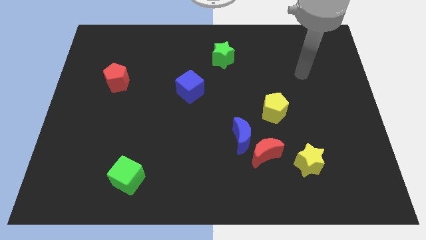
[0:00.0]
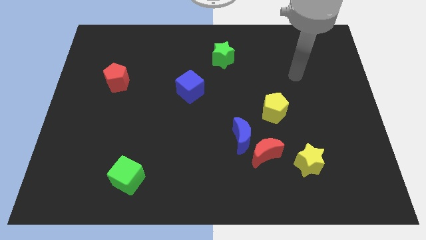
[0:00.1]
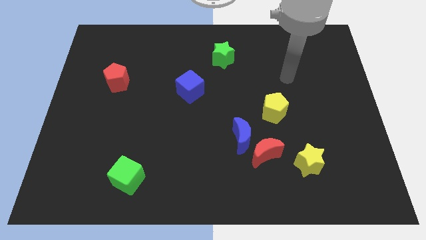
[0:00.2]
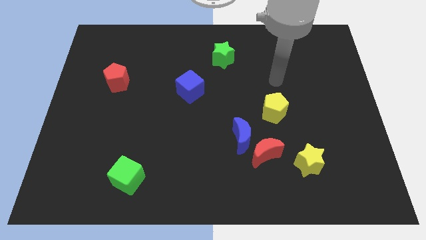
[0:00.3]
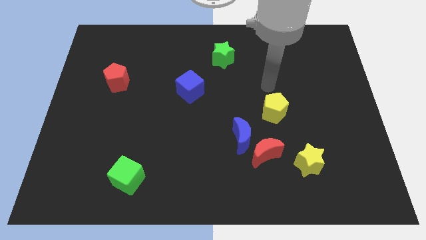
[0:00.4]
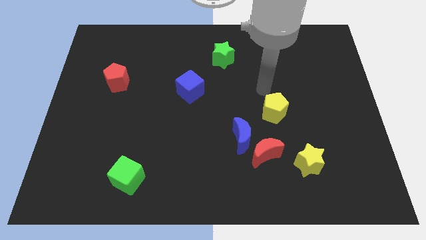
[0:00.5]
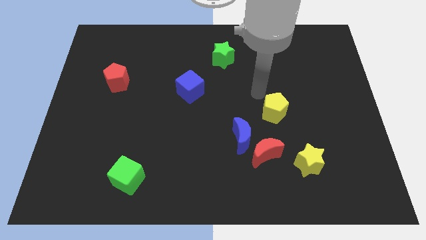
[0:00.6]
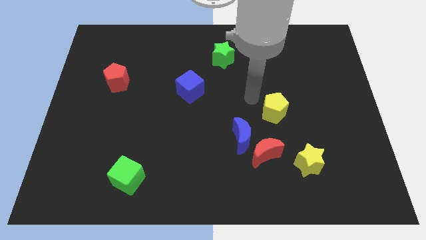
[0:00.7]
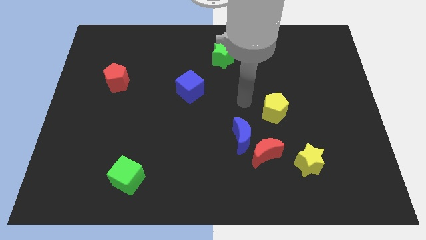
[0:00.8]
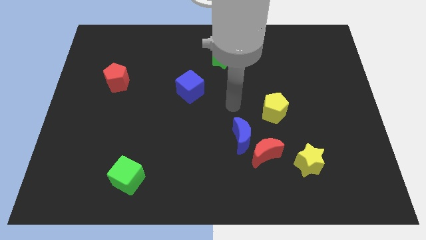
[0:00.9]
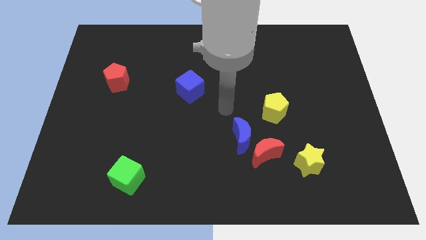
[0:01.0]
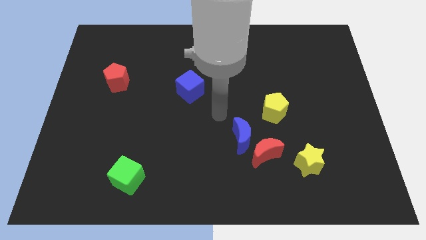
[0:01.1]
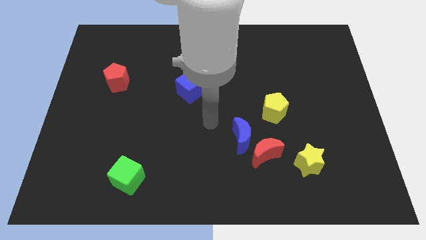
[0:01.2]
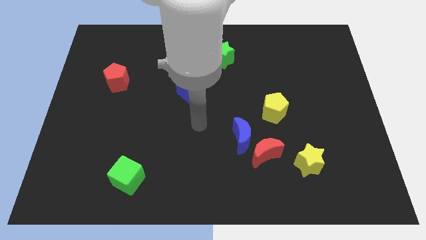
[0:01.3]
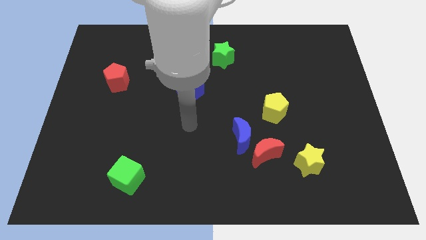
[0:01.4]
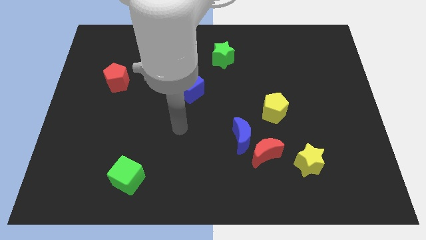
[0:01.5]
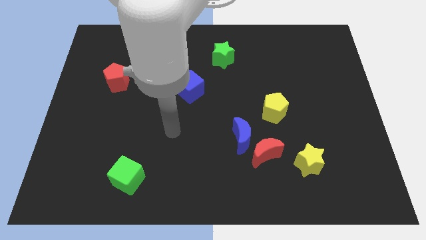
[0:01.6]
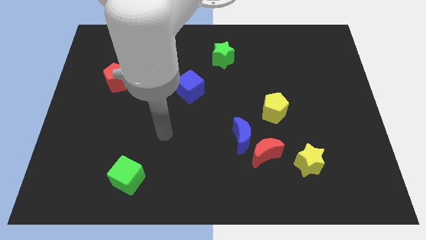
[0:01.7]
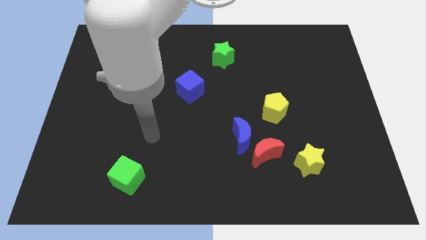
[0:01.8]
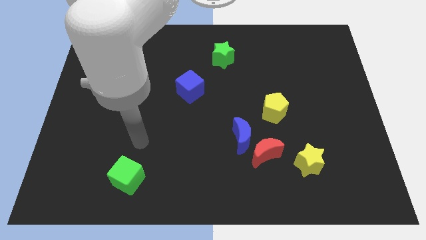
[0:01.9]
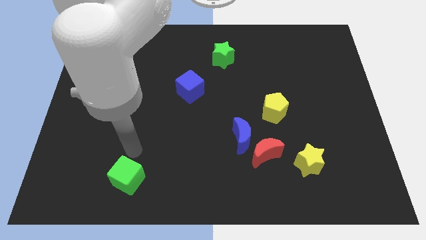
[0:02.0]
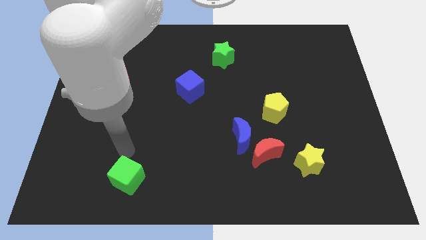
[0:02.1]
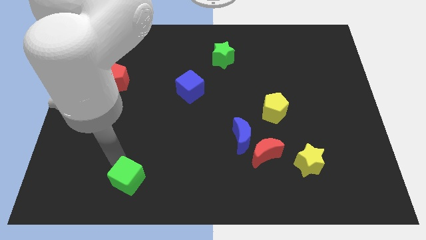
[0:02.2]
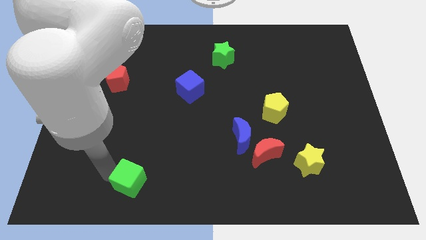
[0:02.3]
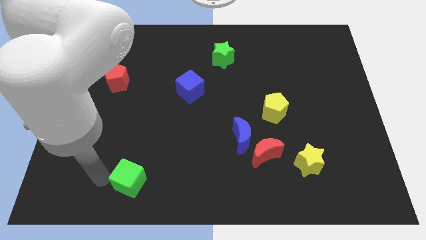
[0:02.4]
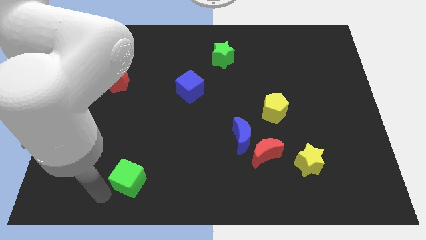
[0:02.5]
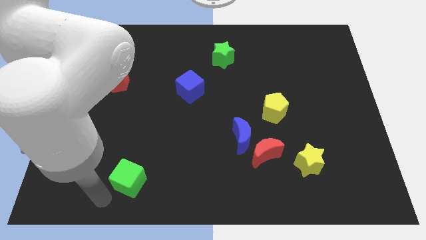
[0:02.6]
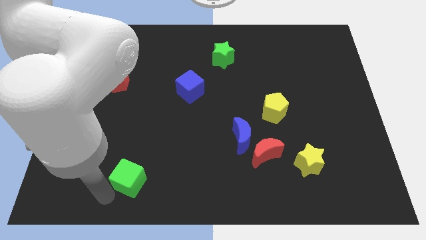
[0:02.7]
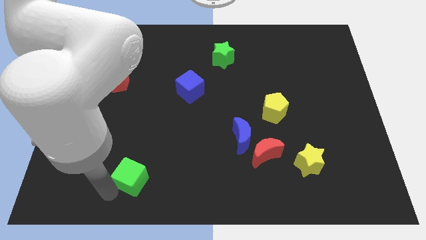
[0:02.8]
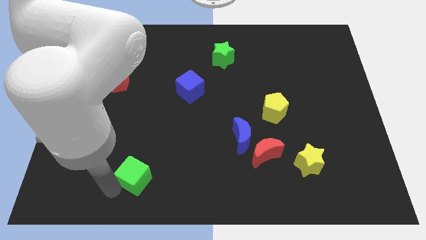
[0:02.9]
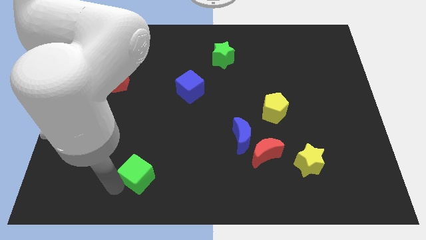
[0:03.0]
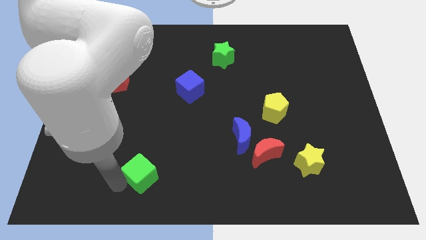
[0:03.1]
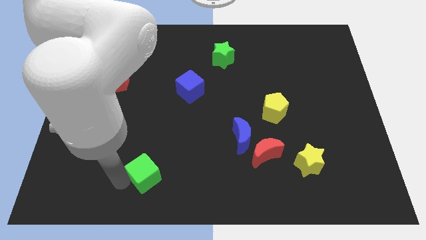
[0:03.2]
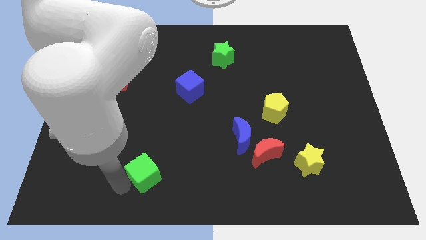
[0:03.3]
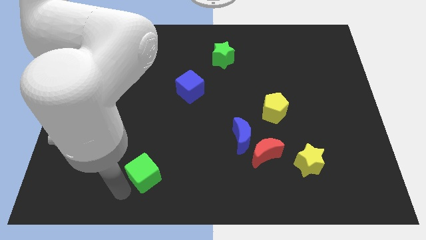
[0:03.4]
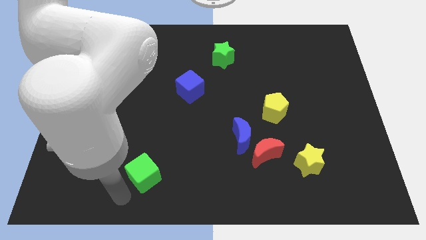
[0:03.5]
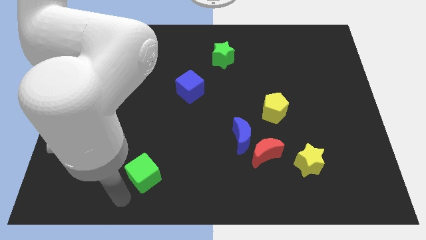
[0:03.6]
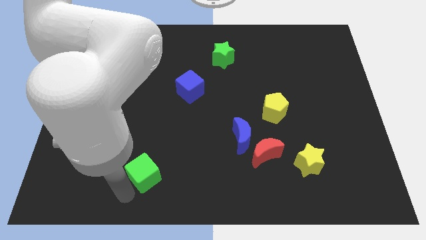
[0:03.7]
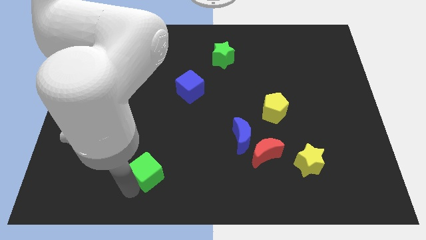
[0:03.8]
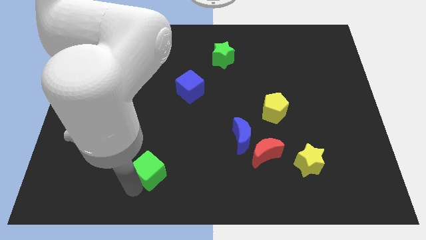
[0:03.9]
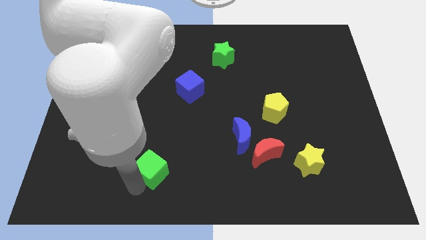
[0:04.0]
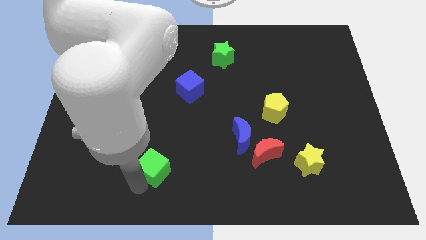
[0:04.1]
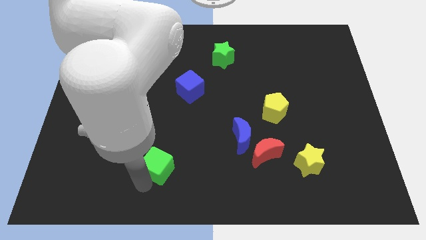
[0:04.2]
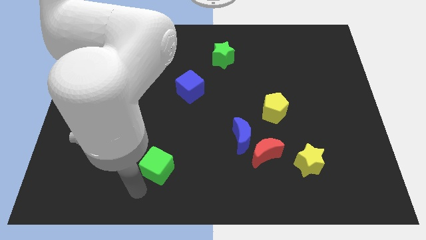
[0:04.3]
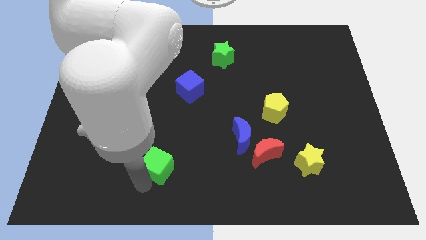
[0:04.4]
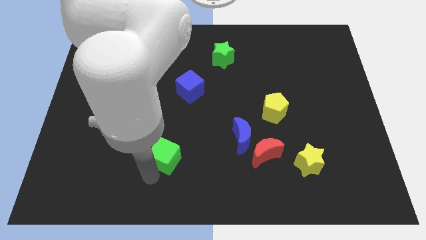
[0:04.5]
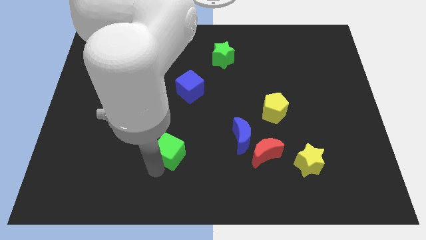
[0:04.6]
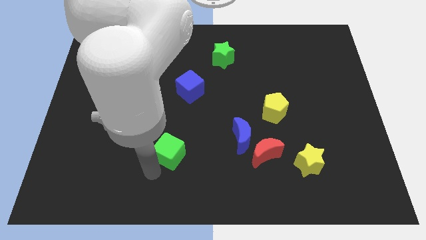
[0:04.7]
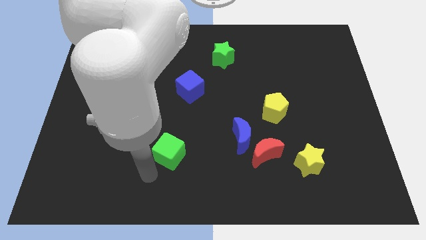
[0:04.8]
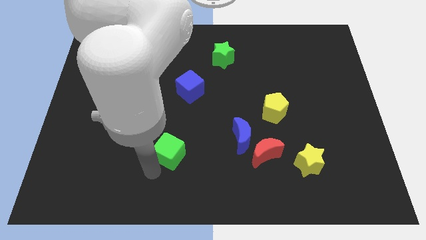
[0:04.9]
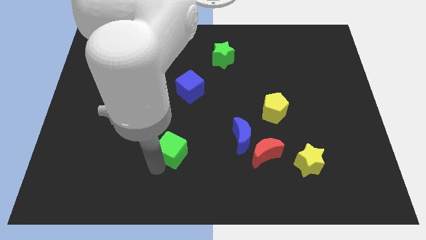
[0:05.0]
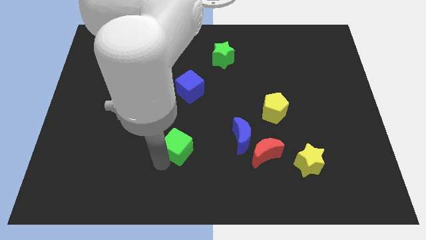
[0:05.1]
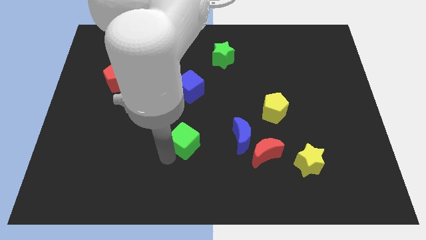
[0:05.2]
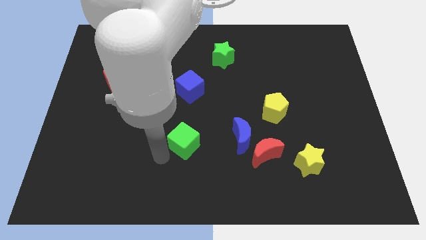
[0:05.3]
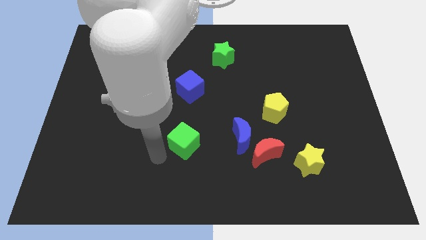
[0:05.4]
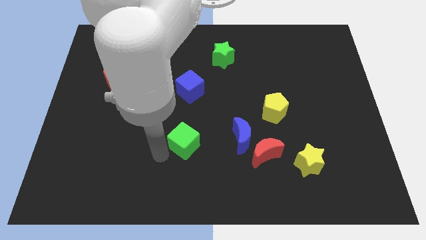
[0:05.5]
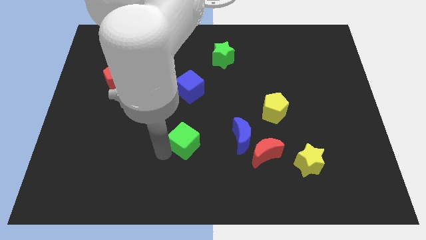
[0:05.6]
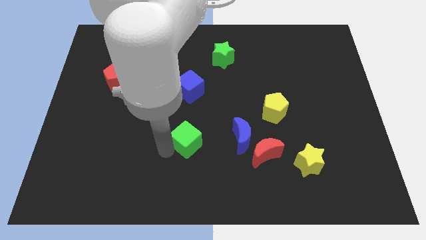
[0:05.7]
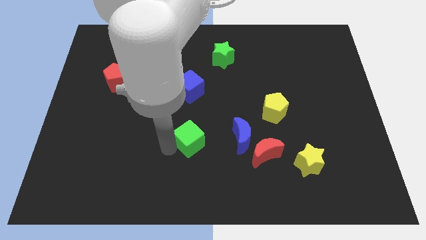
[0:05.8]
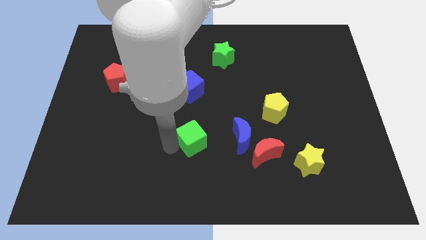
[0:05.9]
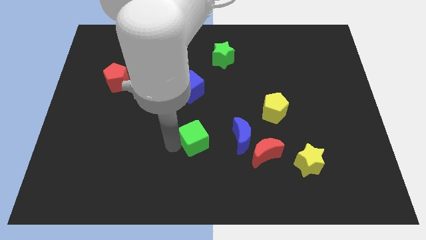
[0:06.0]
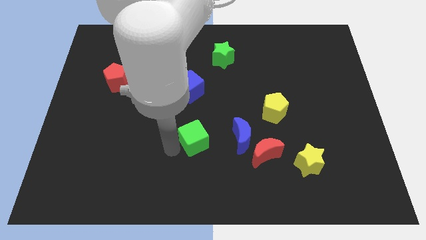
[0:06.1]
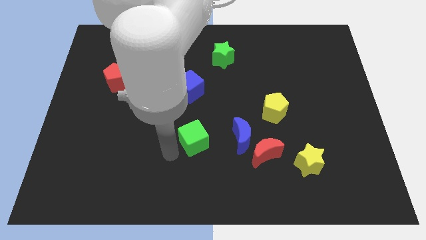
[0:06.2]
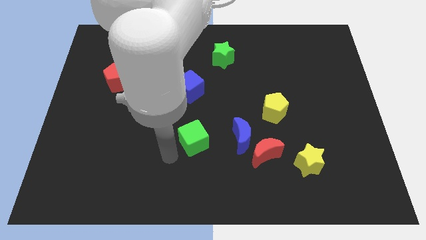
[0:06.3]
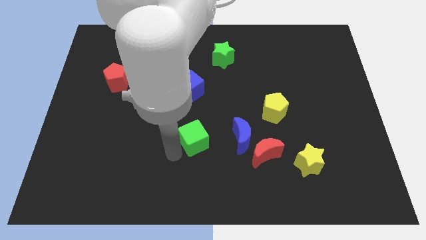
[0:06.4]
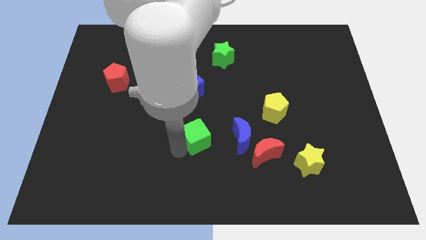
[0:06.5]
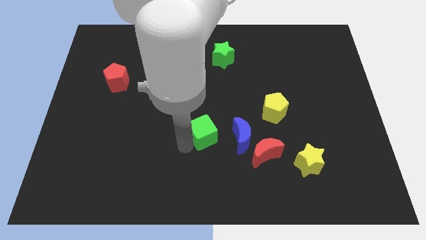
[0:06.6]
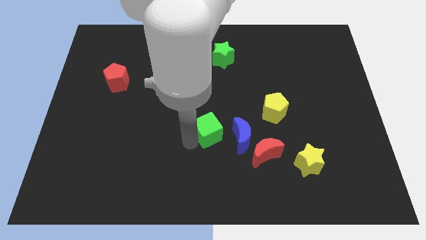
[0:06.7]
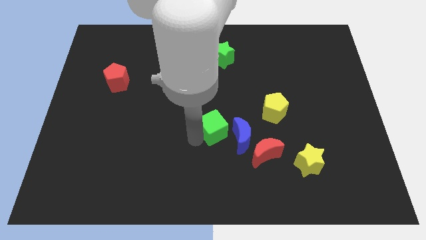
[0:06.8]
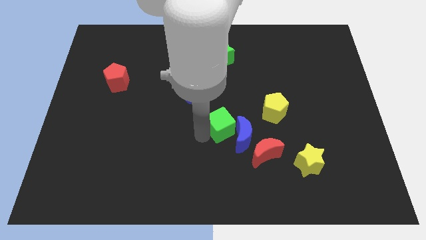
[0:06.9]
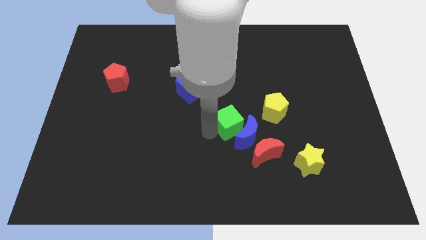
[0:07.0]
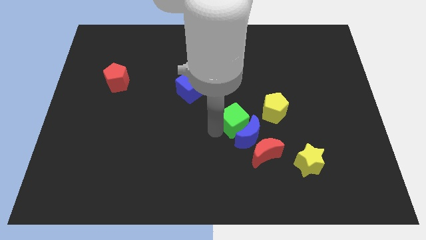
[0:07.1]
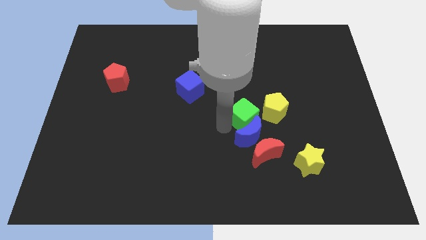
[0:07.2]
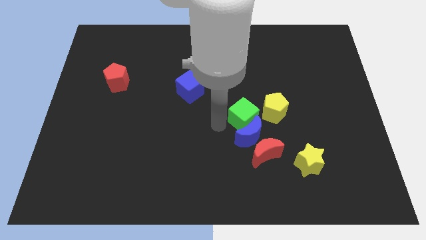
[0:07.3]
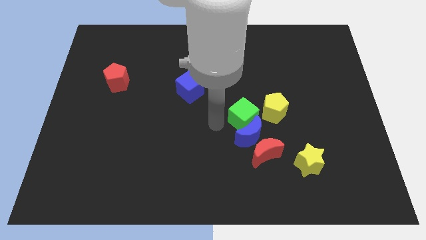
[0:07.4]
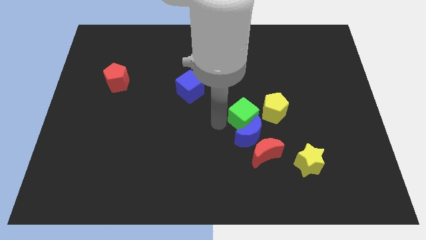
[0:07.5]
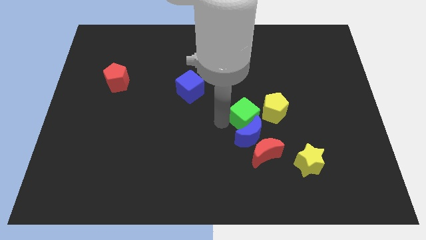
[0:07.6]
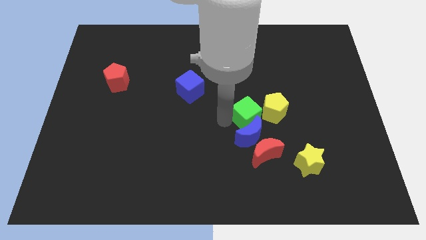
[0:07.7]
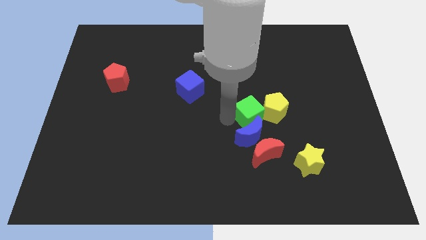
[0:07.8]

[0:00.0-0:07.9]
push the green cube towards the yellow pentagon
